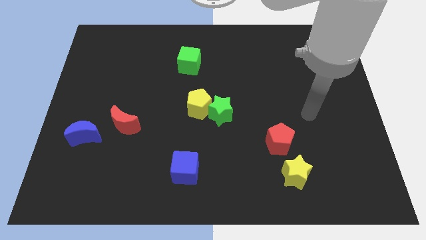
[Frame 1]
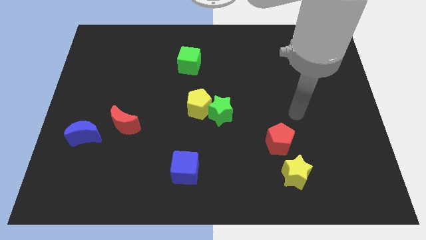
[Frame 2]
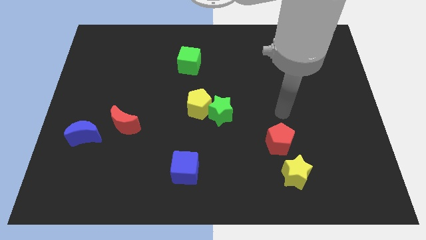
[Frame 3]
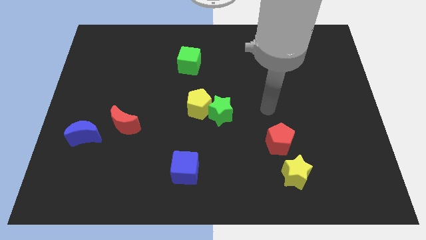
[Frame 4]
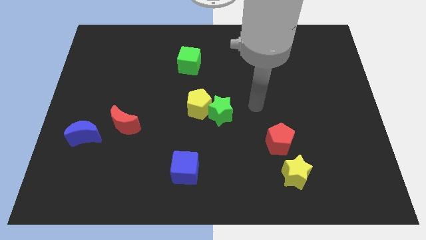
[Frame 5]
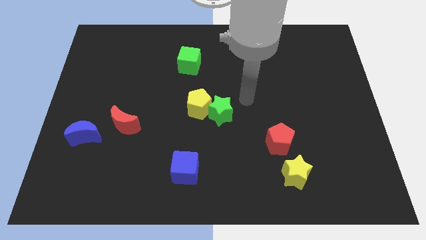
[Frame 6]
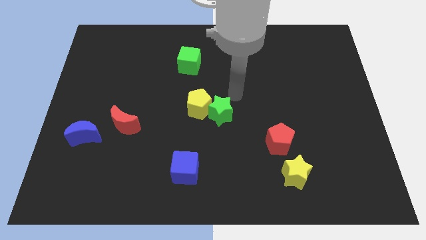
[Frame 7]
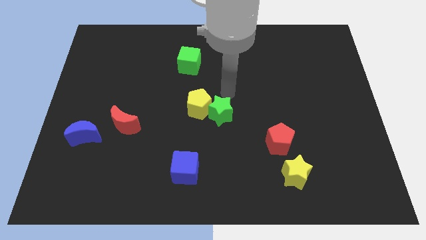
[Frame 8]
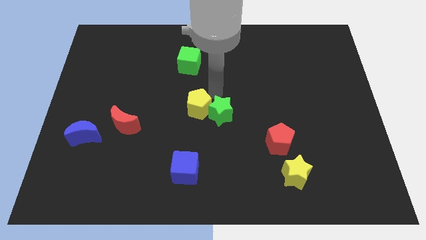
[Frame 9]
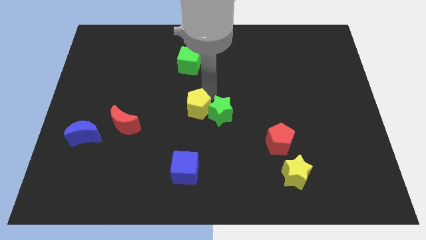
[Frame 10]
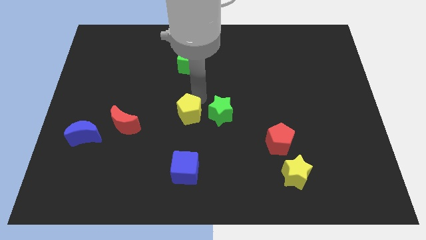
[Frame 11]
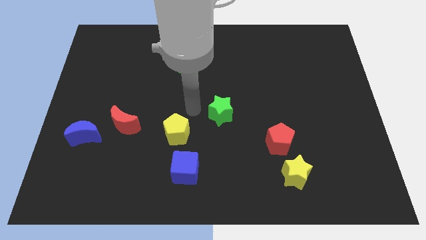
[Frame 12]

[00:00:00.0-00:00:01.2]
pull the green star apart from the yellow pentagon

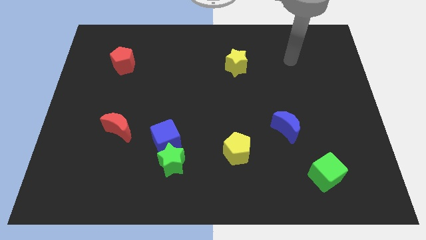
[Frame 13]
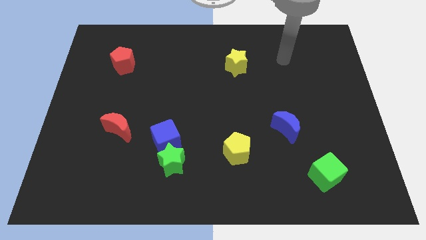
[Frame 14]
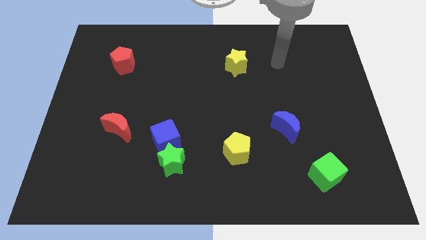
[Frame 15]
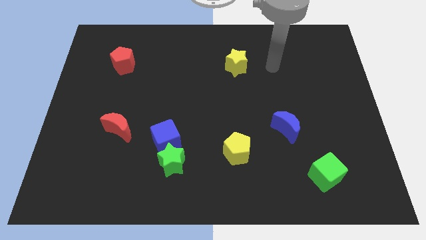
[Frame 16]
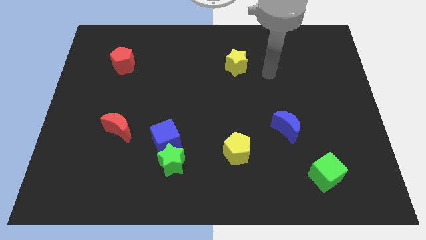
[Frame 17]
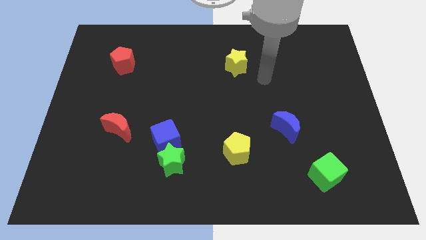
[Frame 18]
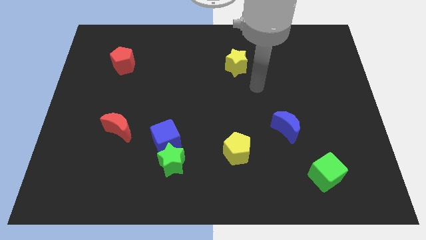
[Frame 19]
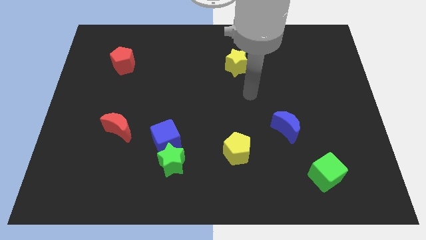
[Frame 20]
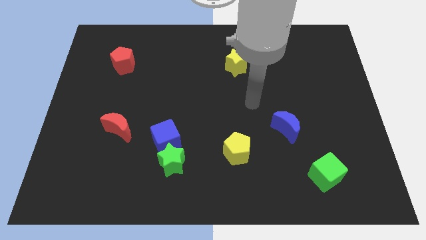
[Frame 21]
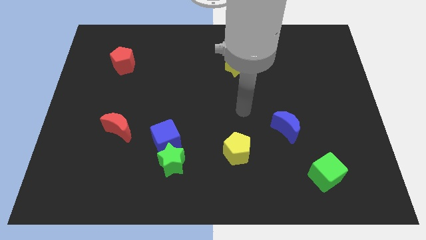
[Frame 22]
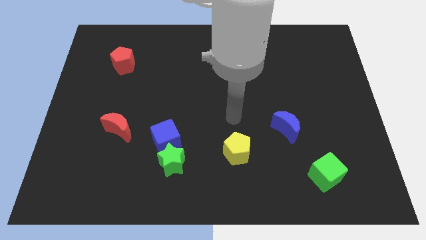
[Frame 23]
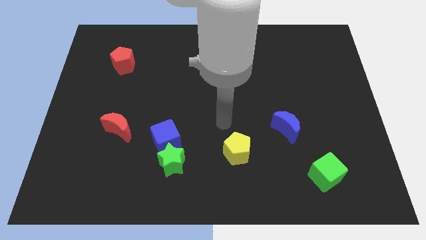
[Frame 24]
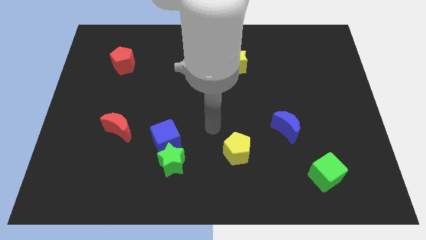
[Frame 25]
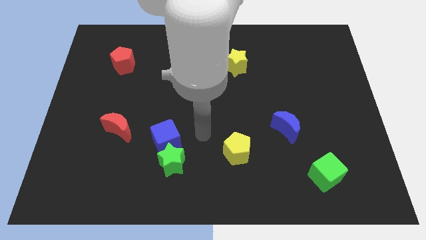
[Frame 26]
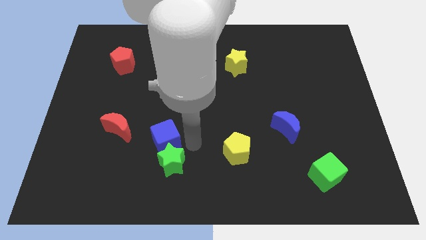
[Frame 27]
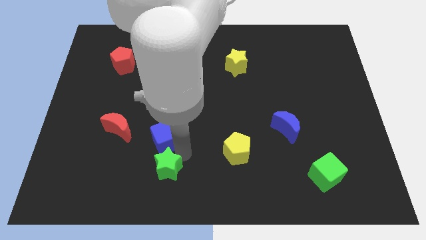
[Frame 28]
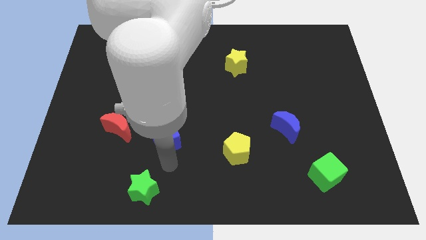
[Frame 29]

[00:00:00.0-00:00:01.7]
separate the blue cube from the green star

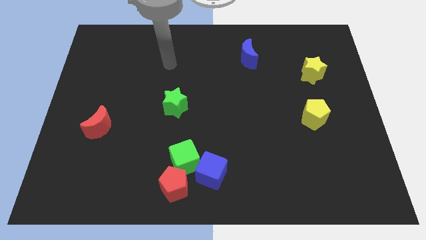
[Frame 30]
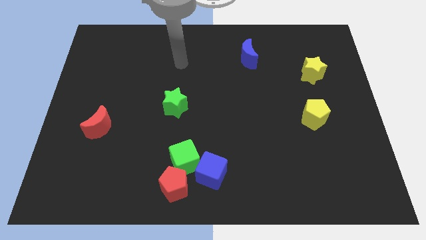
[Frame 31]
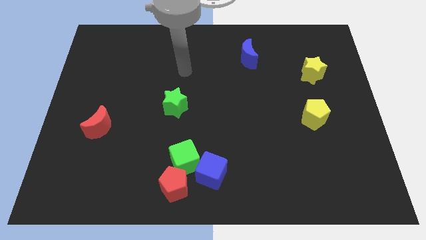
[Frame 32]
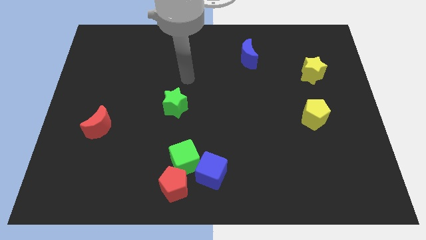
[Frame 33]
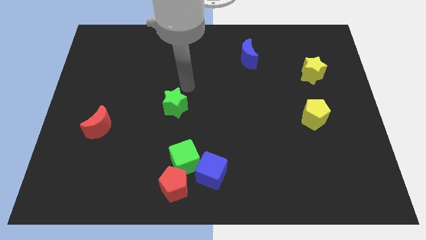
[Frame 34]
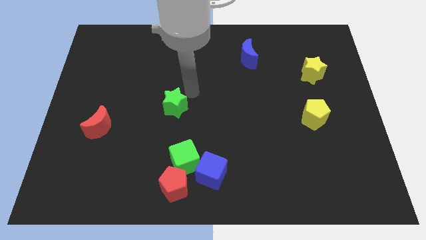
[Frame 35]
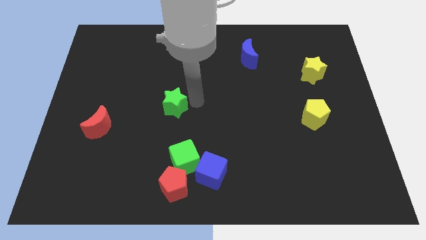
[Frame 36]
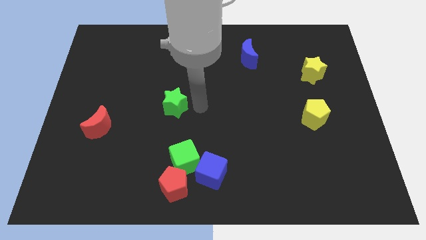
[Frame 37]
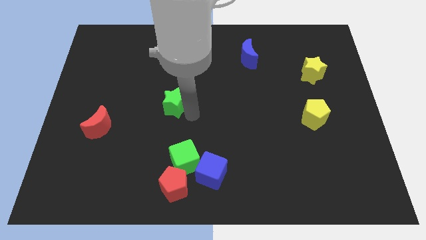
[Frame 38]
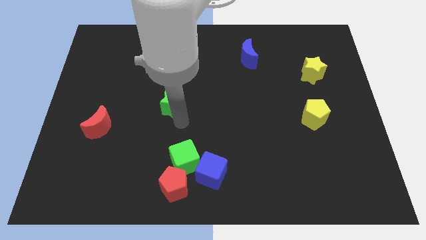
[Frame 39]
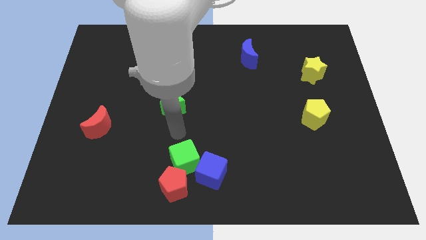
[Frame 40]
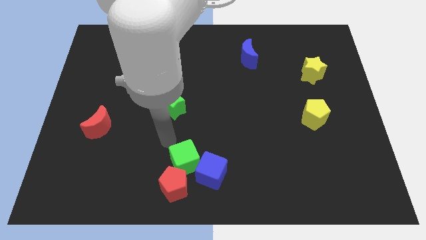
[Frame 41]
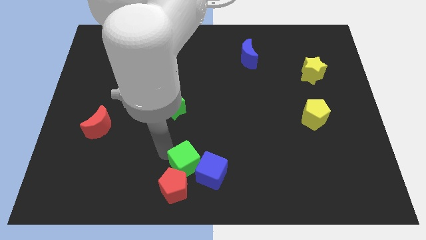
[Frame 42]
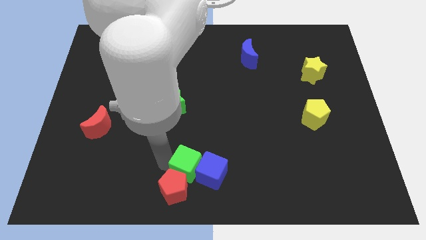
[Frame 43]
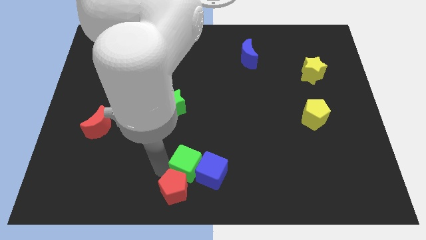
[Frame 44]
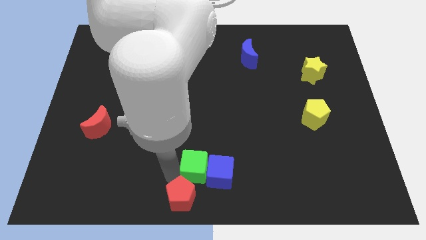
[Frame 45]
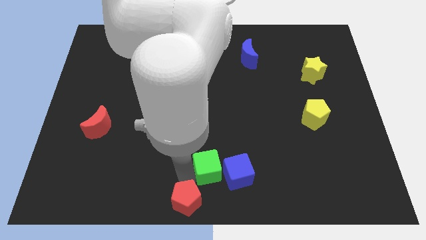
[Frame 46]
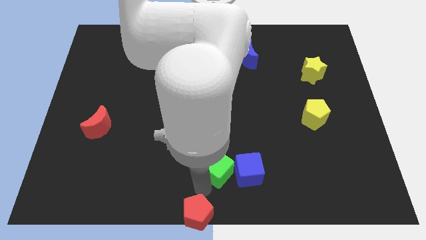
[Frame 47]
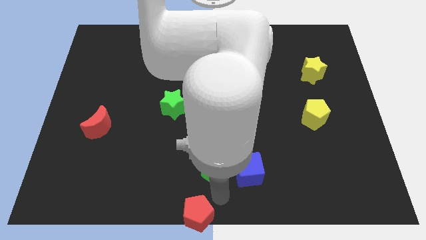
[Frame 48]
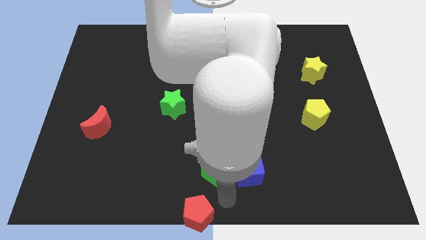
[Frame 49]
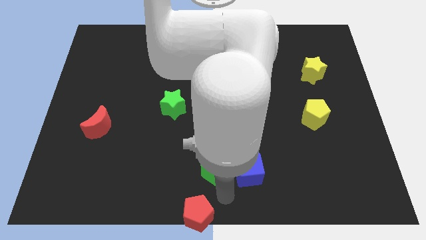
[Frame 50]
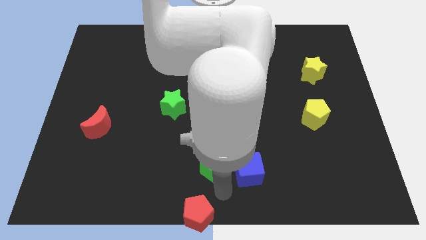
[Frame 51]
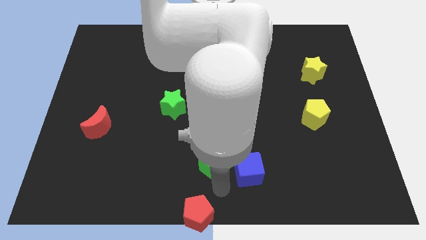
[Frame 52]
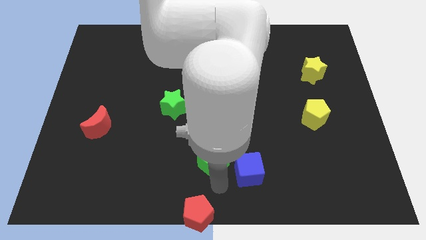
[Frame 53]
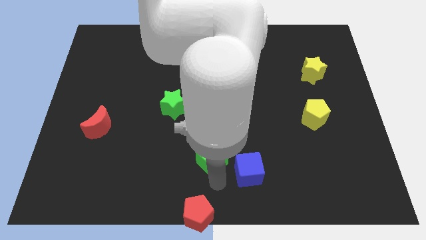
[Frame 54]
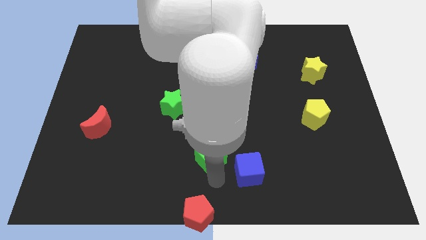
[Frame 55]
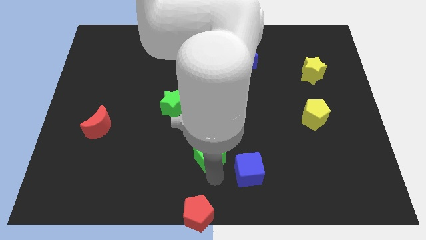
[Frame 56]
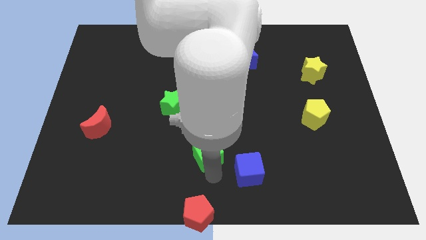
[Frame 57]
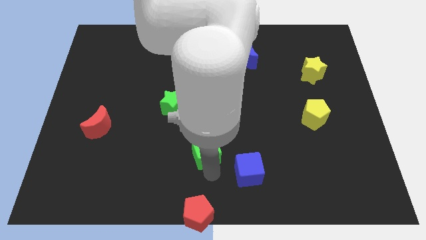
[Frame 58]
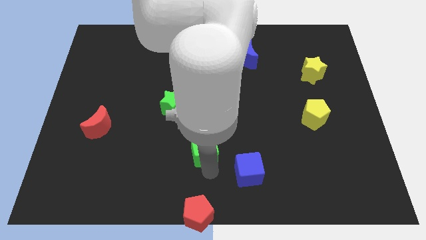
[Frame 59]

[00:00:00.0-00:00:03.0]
separate the green cube from the red pentagon and blue cube

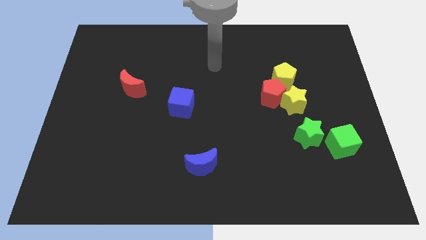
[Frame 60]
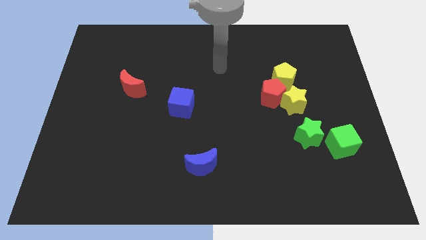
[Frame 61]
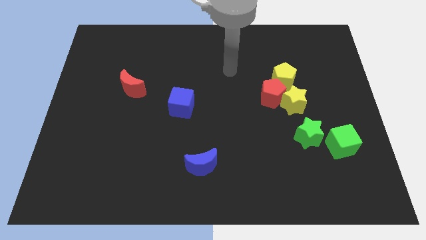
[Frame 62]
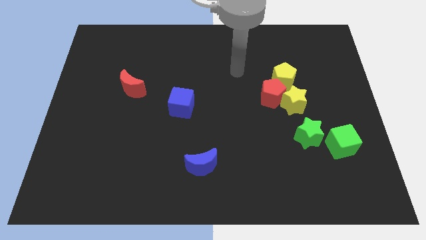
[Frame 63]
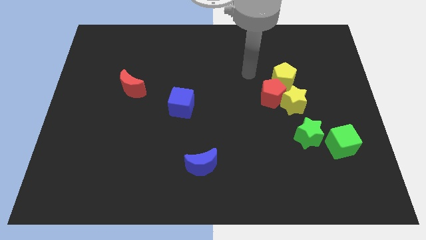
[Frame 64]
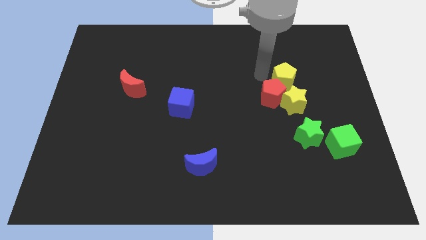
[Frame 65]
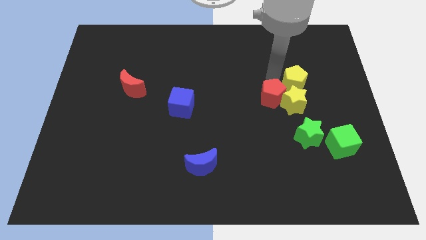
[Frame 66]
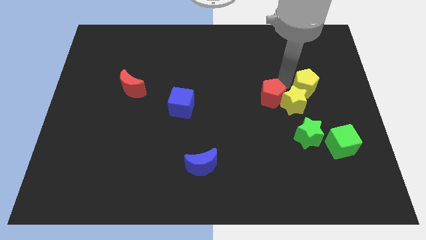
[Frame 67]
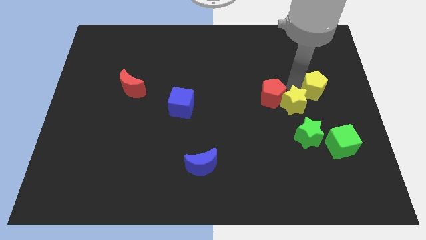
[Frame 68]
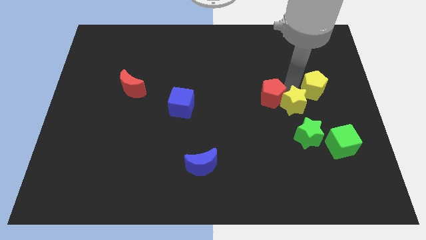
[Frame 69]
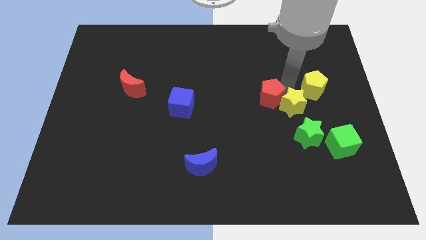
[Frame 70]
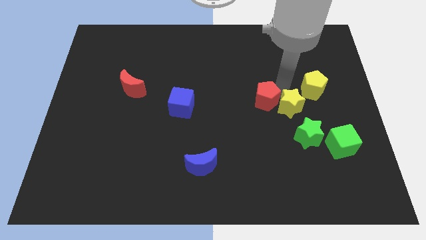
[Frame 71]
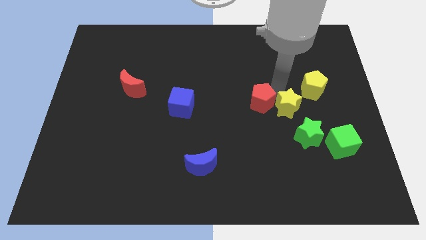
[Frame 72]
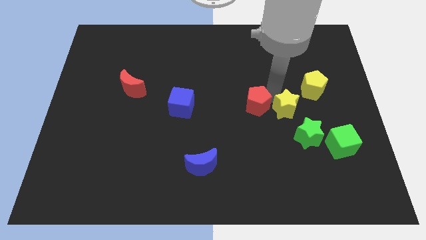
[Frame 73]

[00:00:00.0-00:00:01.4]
move the red pentagon away from the yellow star and yellow pentagon

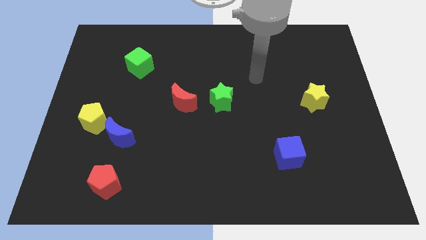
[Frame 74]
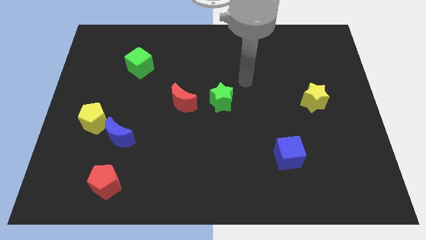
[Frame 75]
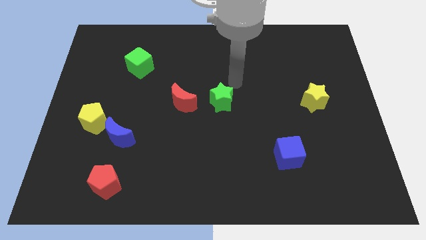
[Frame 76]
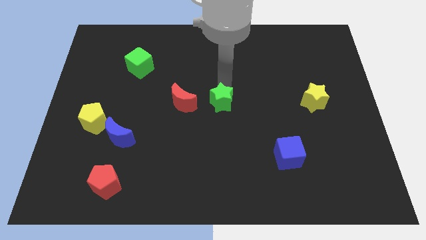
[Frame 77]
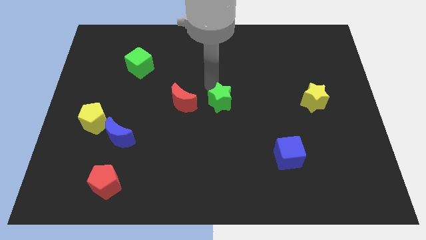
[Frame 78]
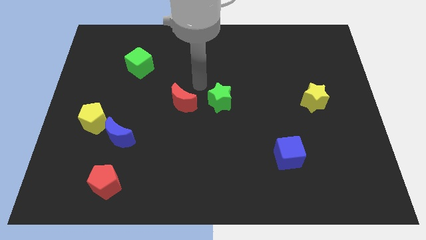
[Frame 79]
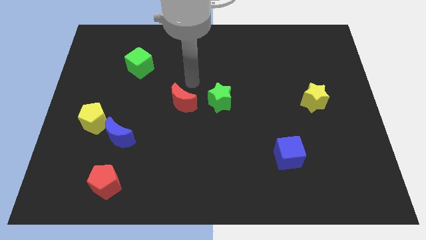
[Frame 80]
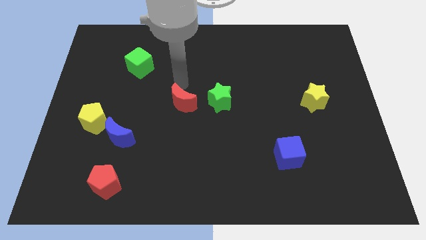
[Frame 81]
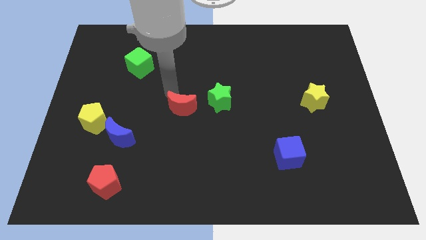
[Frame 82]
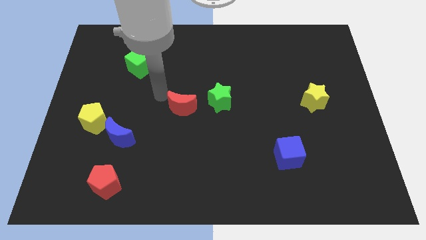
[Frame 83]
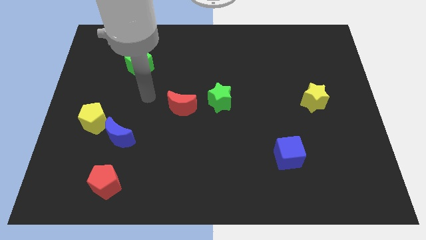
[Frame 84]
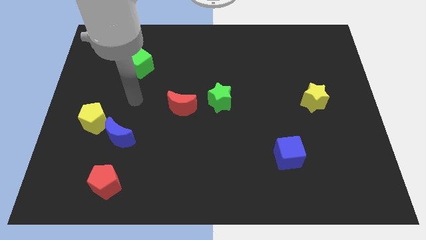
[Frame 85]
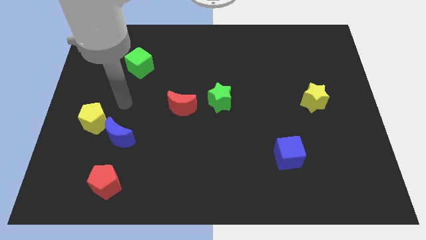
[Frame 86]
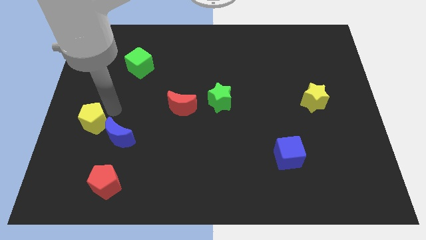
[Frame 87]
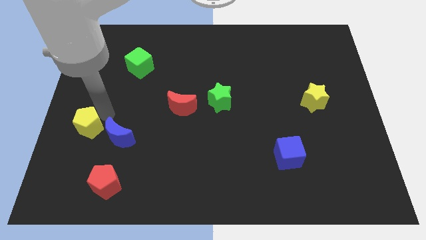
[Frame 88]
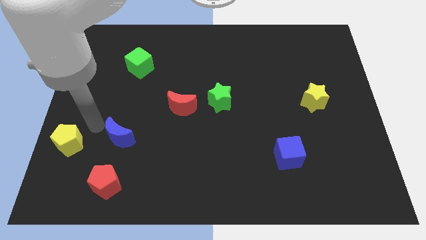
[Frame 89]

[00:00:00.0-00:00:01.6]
move the blue moon away from the yellow pentagon

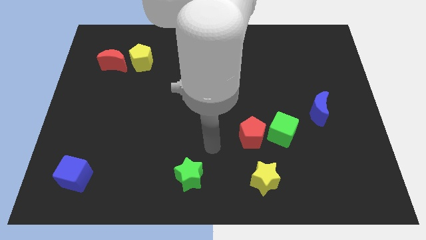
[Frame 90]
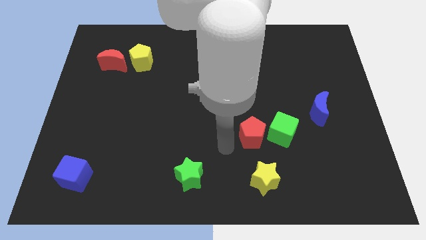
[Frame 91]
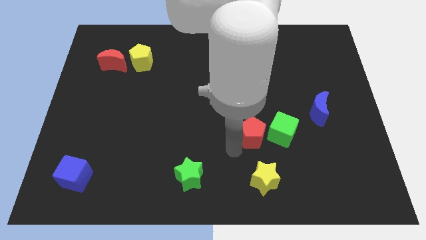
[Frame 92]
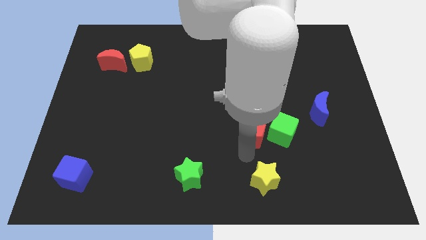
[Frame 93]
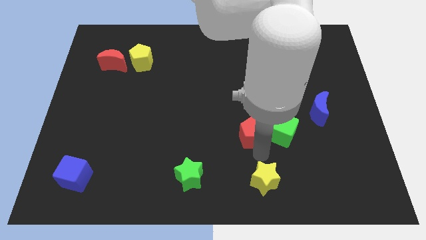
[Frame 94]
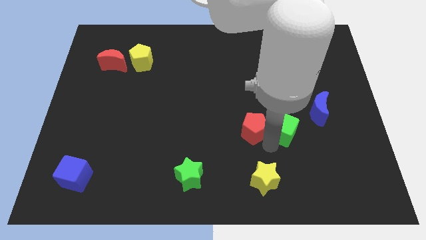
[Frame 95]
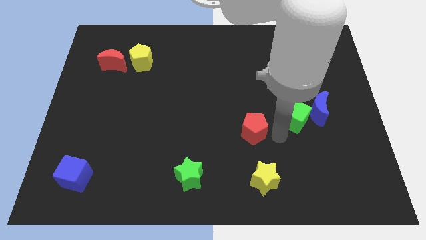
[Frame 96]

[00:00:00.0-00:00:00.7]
separate the red pentagon from the green cube
